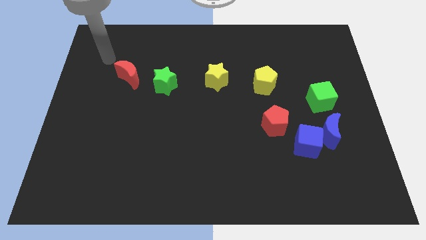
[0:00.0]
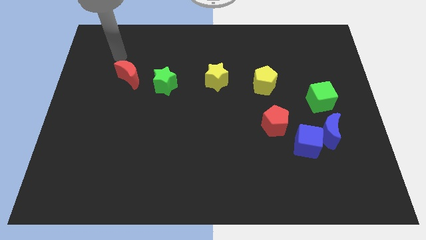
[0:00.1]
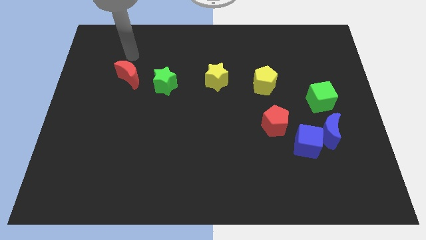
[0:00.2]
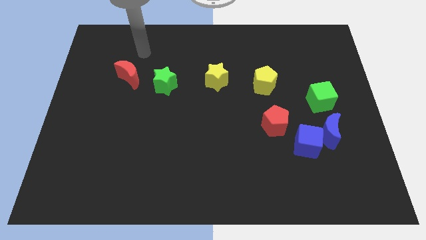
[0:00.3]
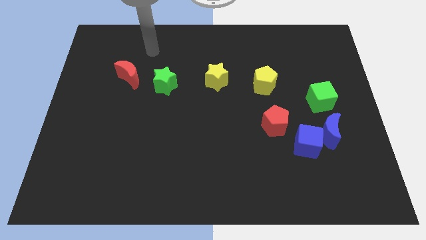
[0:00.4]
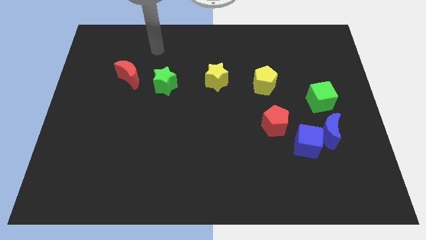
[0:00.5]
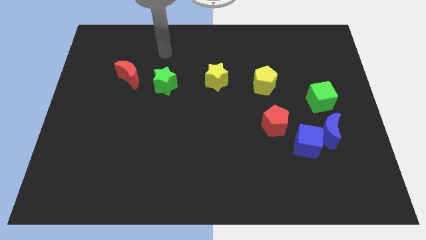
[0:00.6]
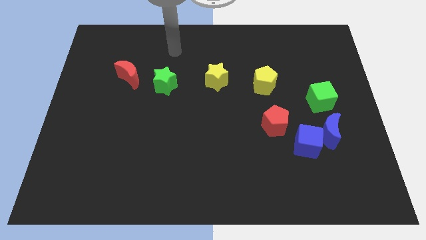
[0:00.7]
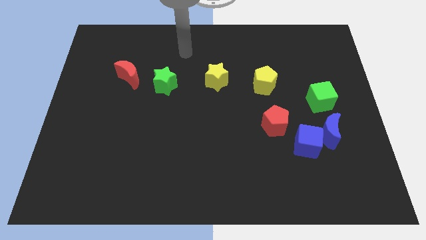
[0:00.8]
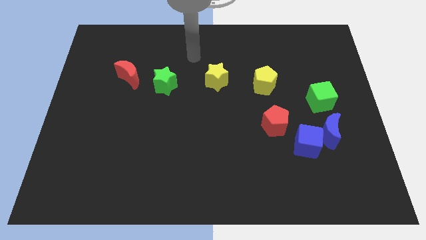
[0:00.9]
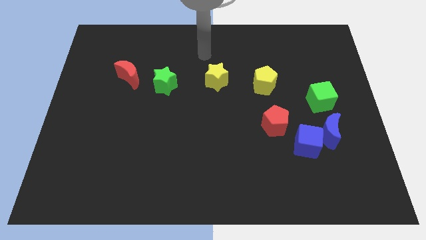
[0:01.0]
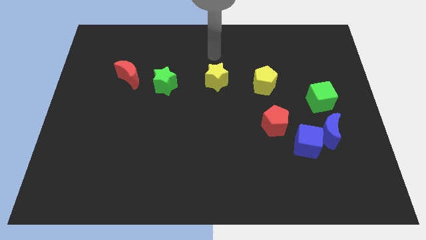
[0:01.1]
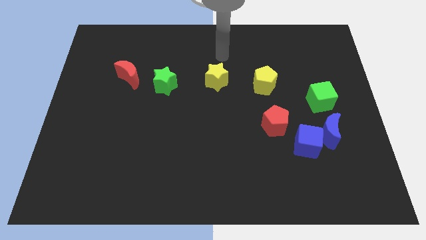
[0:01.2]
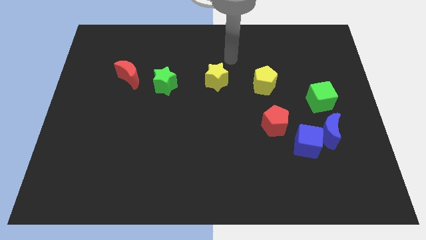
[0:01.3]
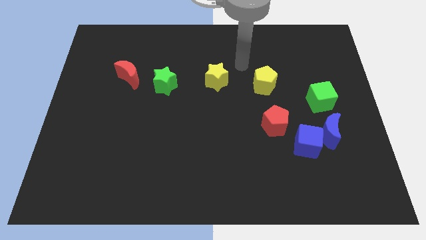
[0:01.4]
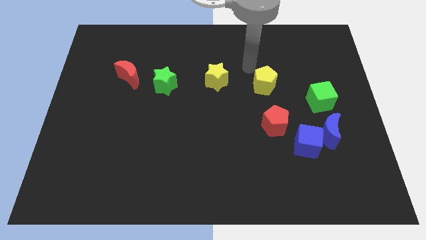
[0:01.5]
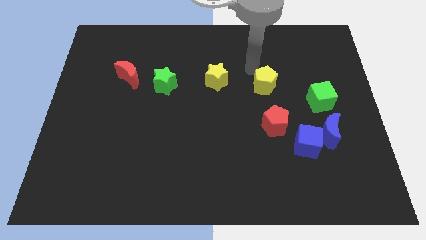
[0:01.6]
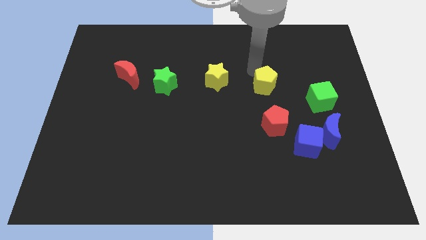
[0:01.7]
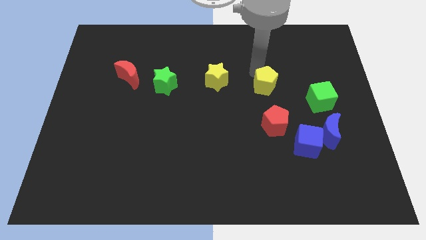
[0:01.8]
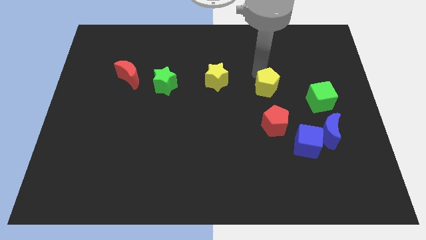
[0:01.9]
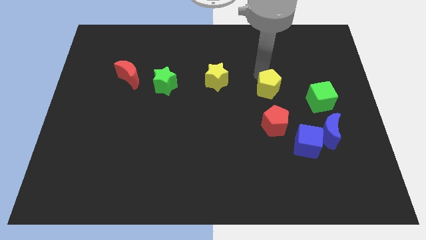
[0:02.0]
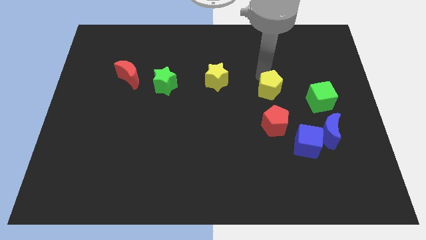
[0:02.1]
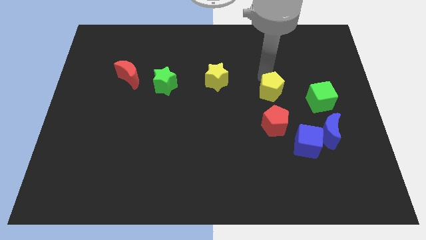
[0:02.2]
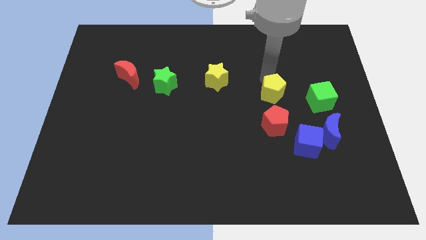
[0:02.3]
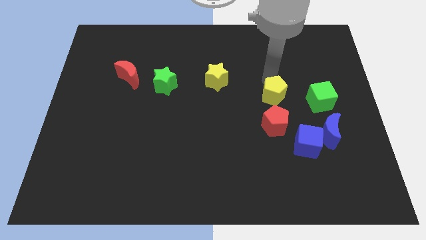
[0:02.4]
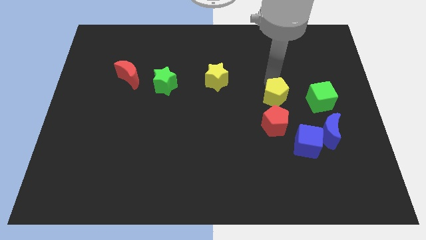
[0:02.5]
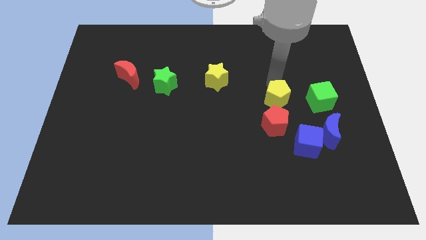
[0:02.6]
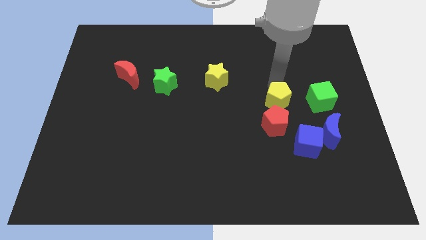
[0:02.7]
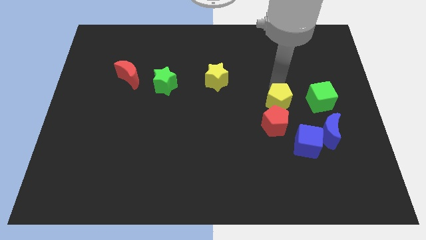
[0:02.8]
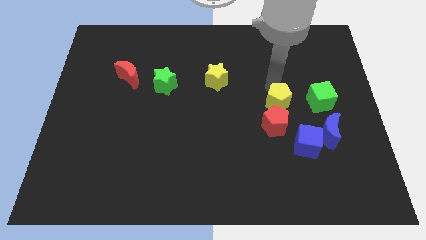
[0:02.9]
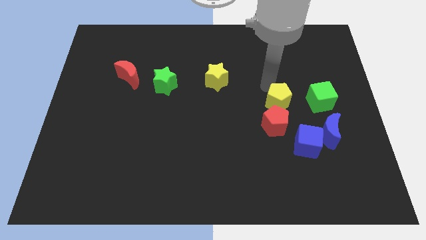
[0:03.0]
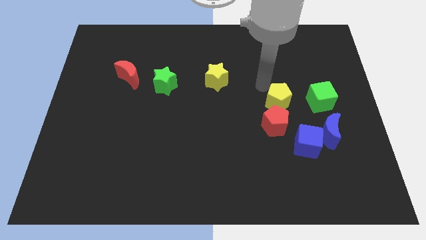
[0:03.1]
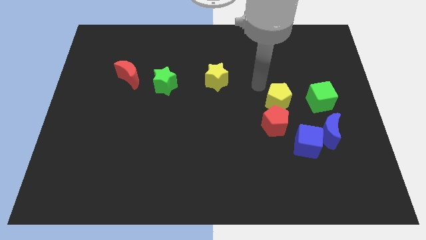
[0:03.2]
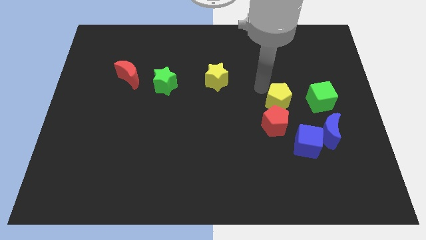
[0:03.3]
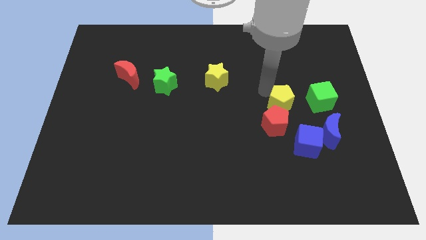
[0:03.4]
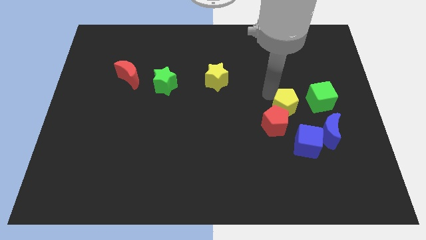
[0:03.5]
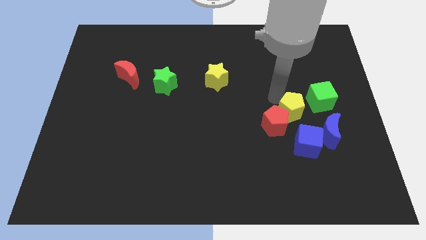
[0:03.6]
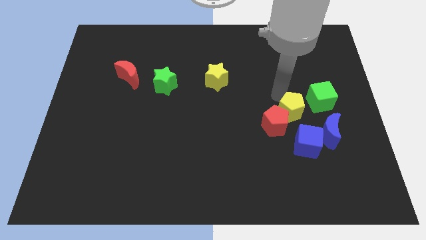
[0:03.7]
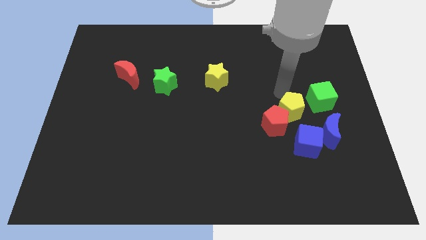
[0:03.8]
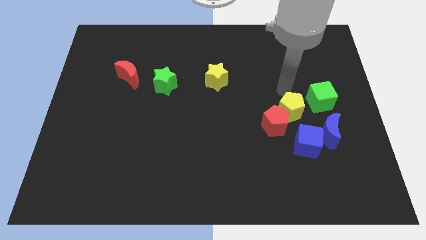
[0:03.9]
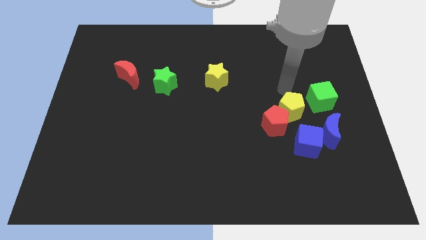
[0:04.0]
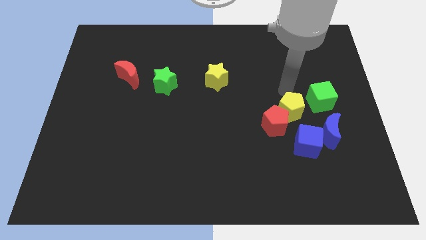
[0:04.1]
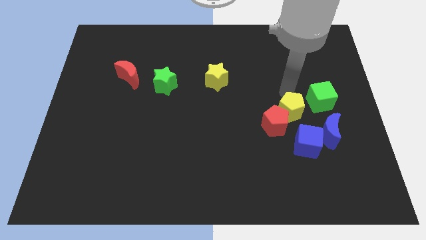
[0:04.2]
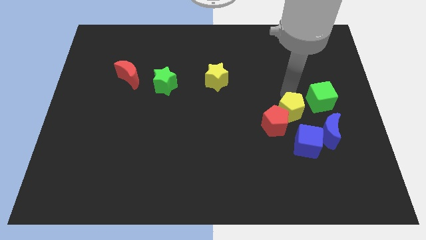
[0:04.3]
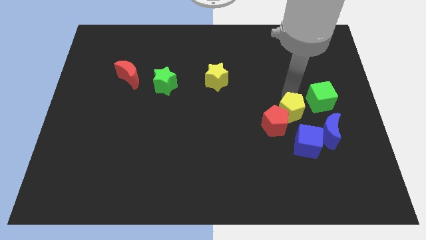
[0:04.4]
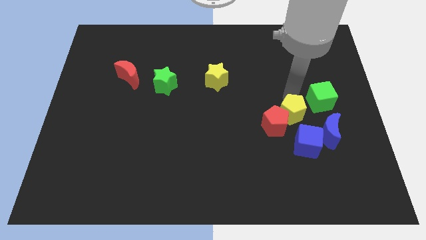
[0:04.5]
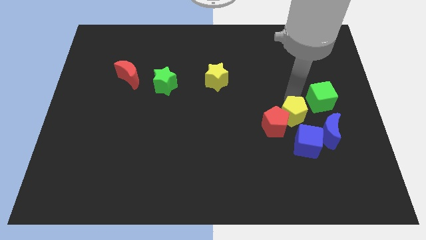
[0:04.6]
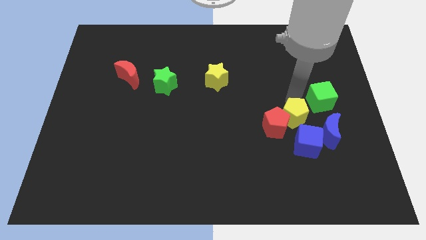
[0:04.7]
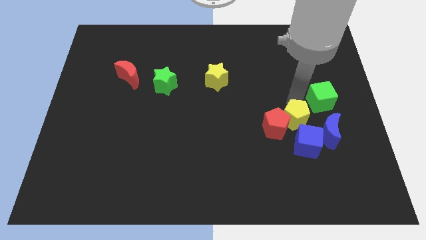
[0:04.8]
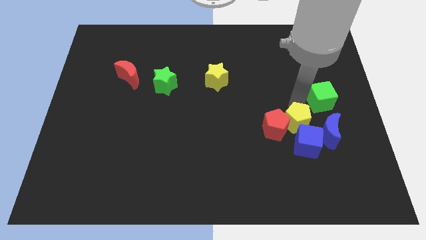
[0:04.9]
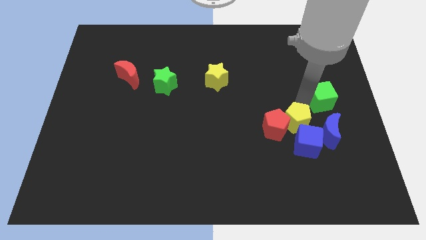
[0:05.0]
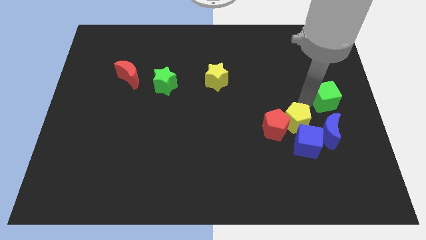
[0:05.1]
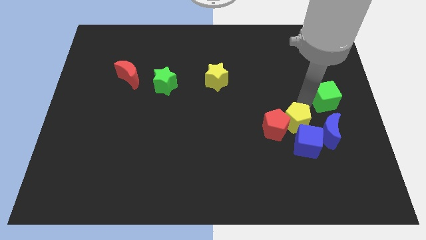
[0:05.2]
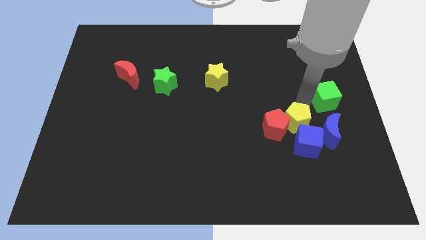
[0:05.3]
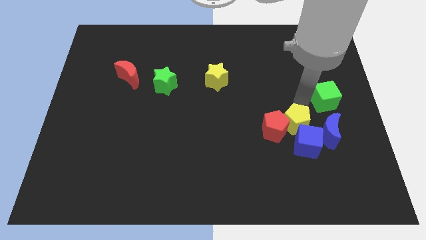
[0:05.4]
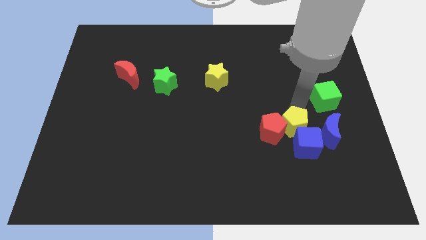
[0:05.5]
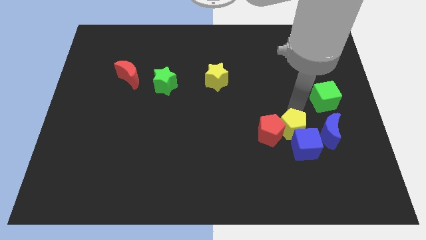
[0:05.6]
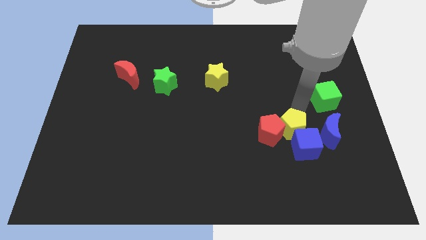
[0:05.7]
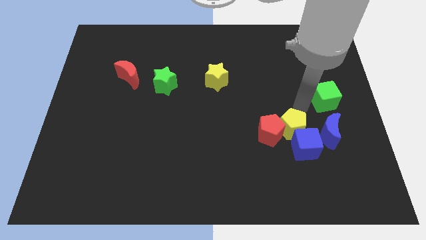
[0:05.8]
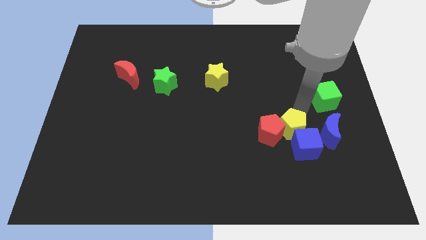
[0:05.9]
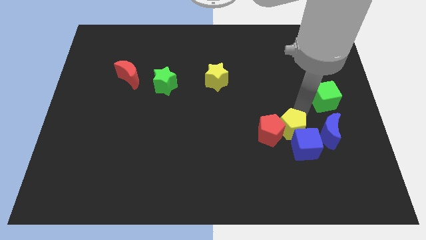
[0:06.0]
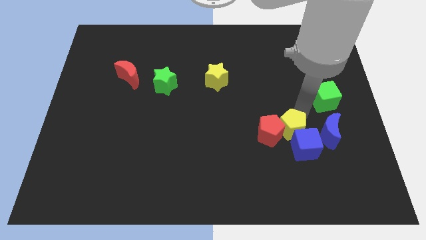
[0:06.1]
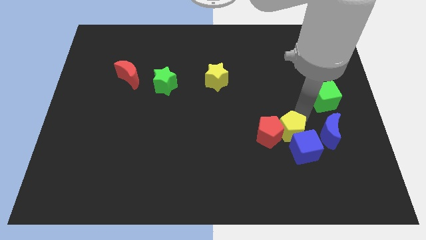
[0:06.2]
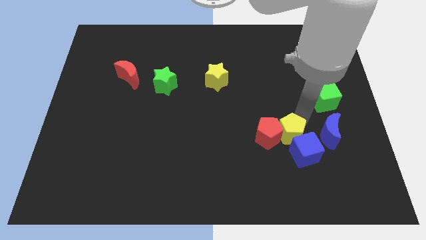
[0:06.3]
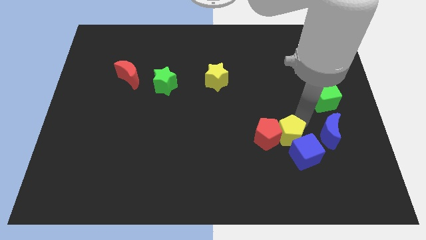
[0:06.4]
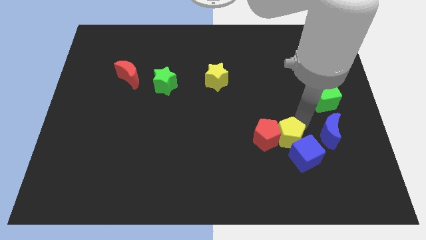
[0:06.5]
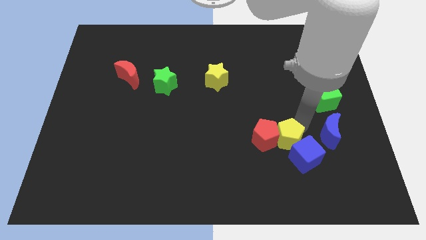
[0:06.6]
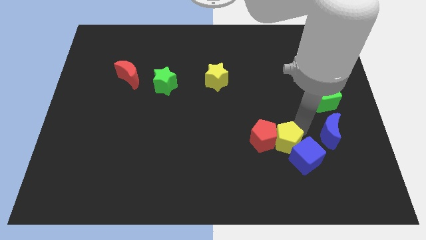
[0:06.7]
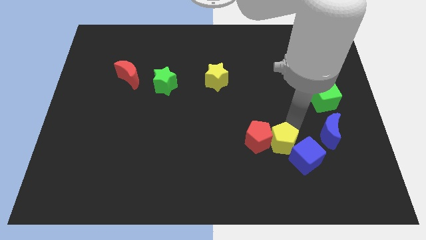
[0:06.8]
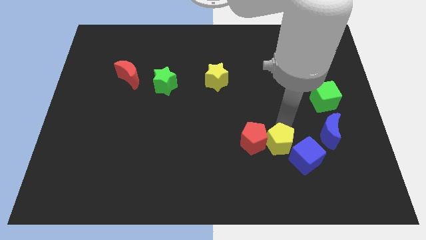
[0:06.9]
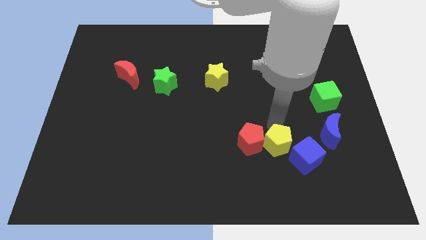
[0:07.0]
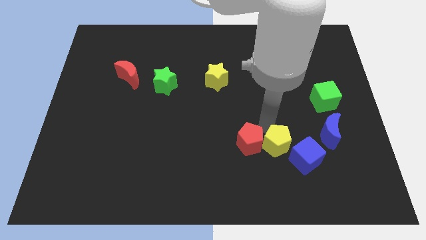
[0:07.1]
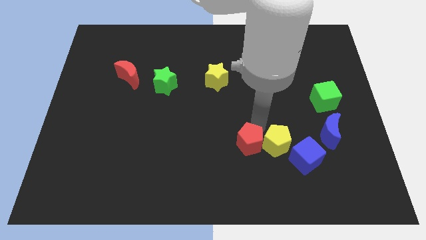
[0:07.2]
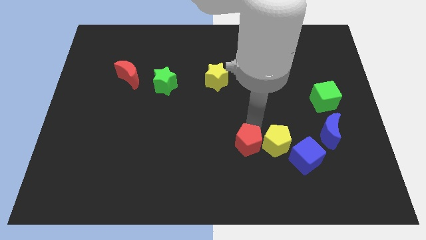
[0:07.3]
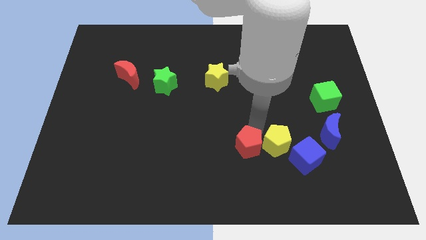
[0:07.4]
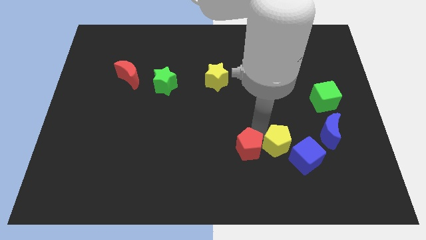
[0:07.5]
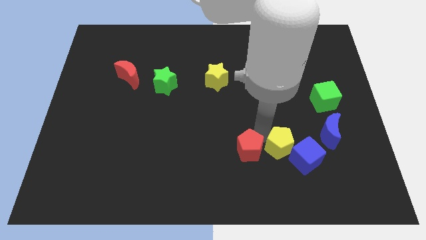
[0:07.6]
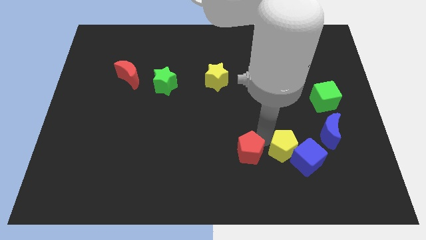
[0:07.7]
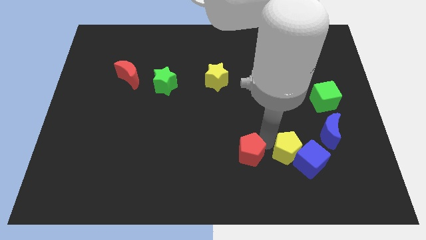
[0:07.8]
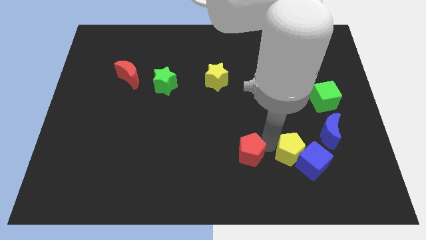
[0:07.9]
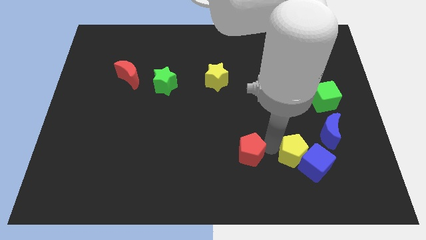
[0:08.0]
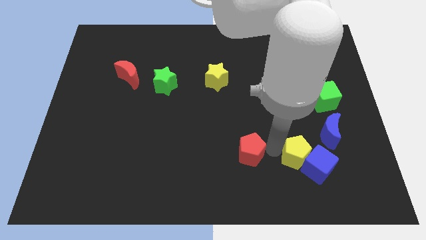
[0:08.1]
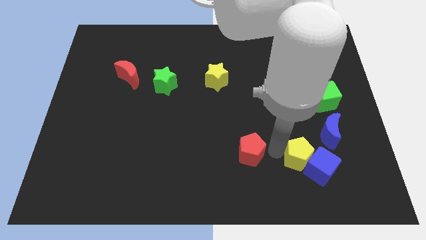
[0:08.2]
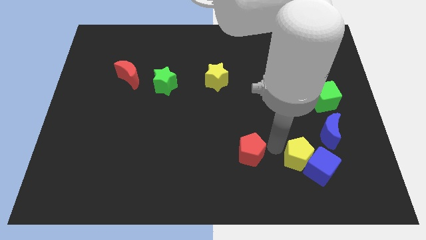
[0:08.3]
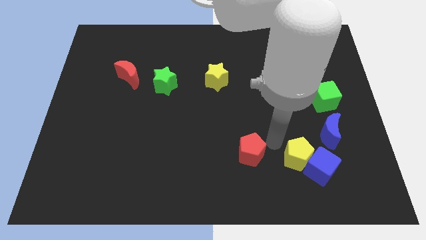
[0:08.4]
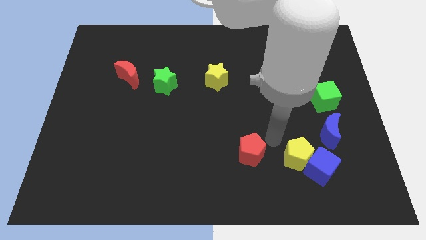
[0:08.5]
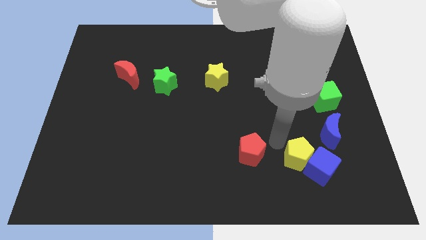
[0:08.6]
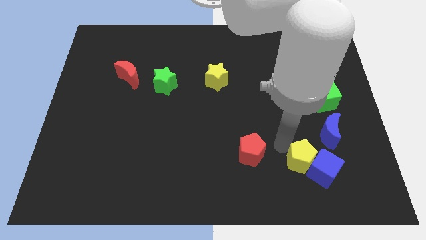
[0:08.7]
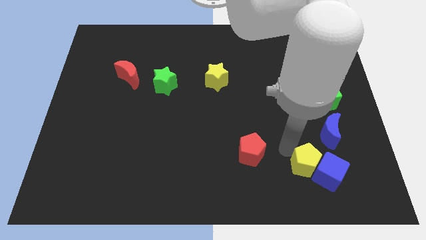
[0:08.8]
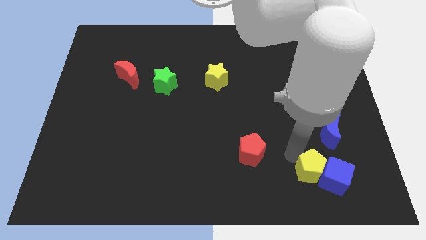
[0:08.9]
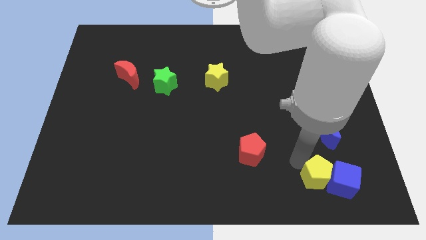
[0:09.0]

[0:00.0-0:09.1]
move the yellow pentagon below the blue moon
